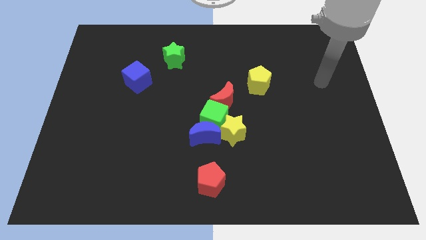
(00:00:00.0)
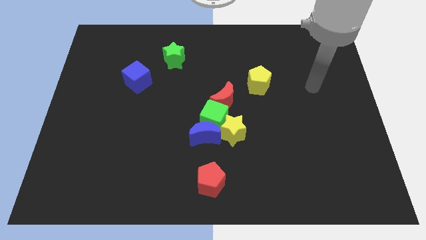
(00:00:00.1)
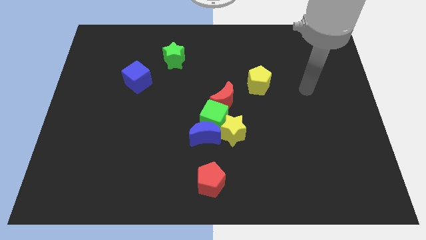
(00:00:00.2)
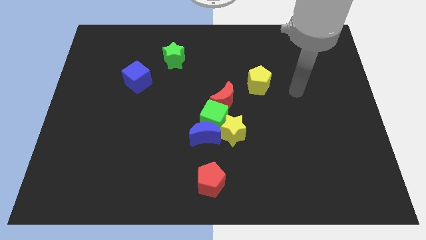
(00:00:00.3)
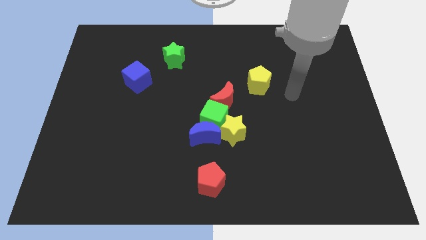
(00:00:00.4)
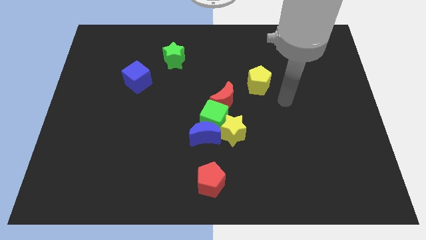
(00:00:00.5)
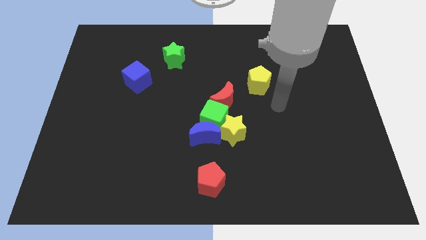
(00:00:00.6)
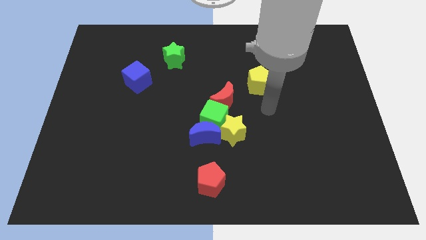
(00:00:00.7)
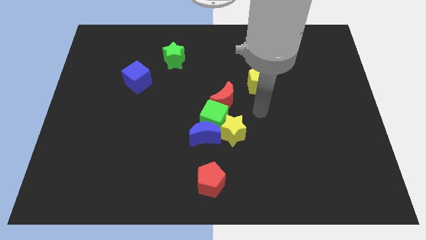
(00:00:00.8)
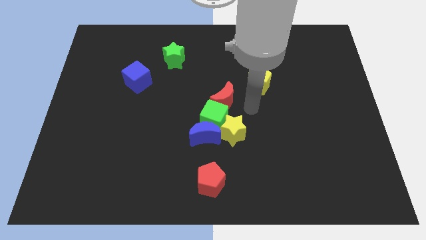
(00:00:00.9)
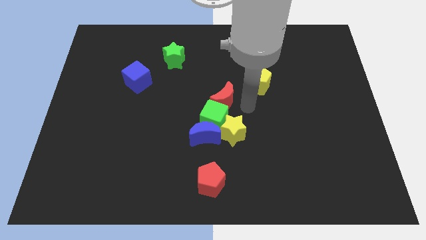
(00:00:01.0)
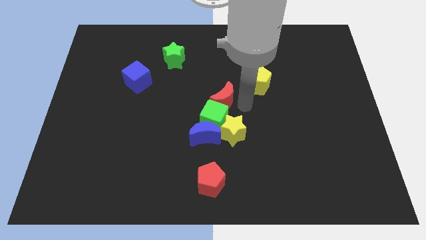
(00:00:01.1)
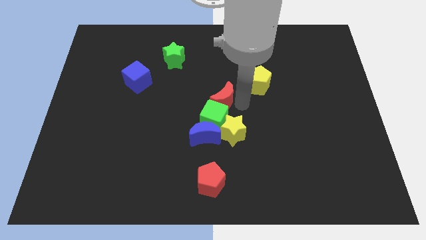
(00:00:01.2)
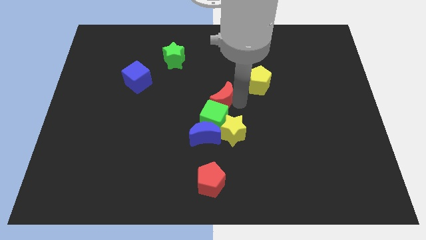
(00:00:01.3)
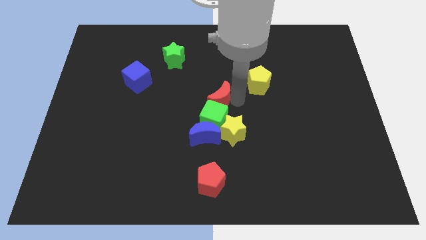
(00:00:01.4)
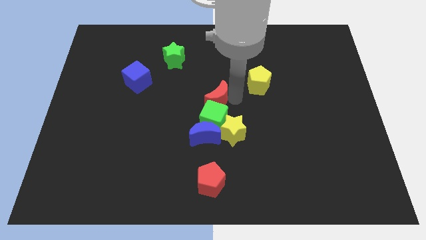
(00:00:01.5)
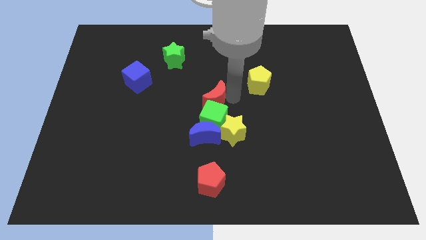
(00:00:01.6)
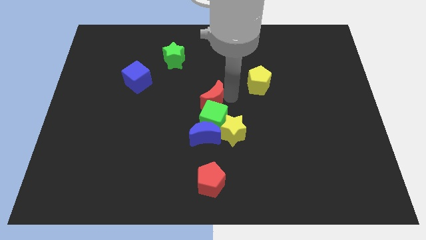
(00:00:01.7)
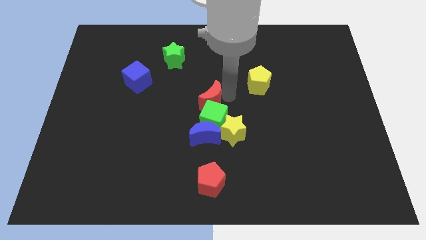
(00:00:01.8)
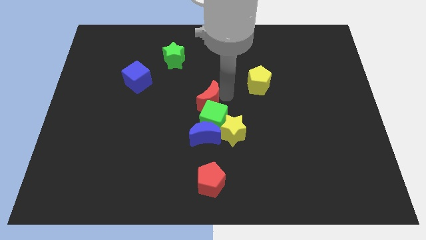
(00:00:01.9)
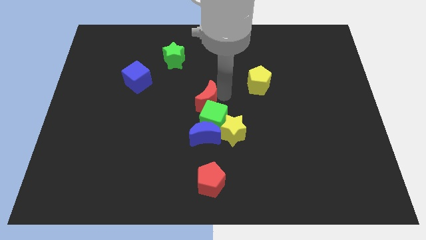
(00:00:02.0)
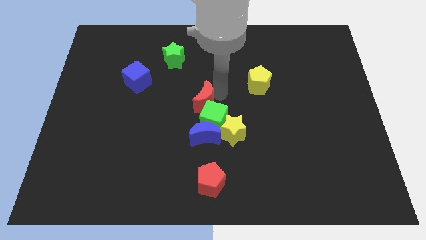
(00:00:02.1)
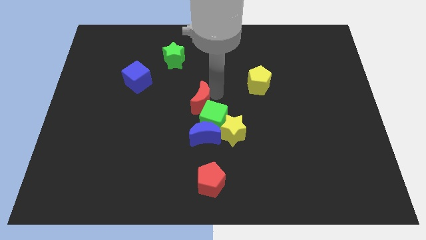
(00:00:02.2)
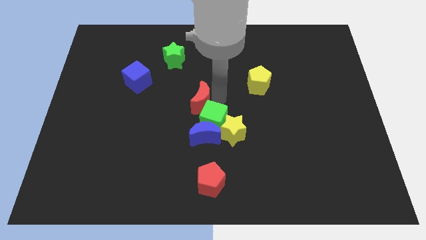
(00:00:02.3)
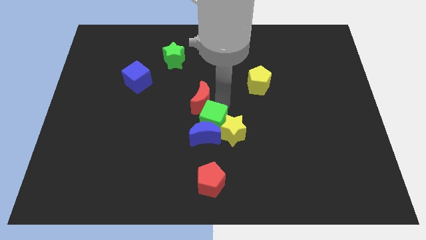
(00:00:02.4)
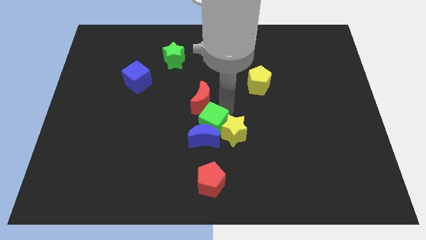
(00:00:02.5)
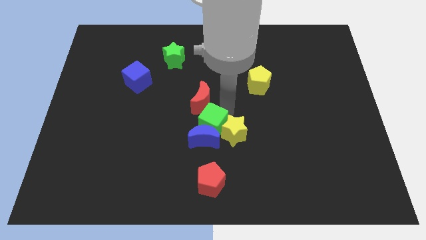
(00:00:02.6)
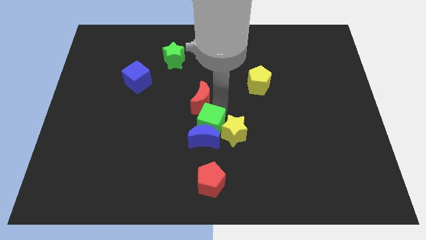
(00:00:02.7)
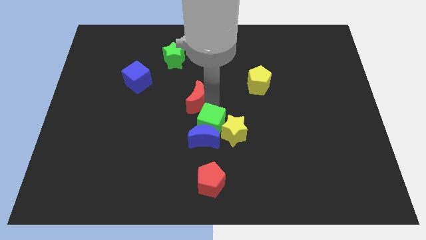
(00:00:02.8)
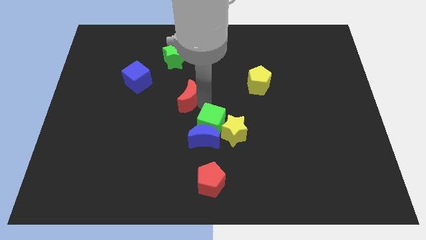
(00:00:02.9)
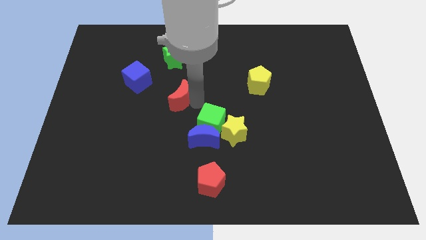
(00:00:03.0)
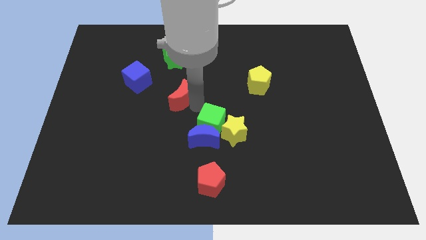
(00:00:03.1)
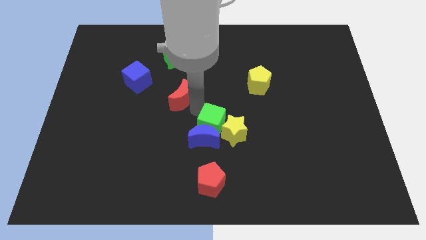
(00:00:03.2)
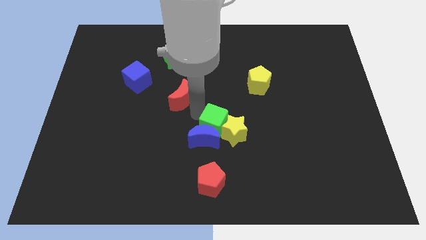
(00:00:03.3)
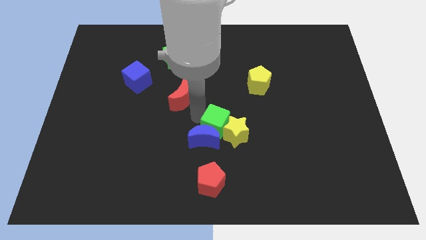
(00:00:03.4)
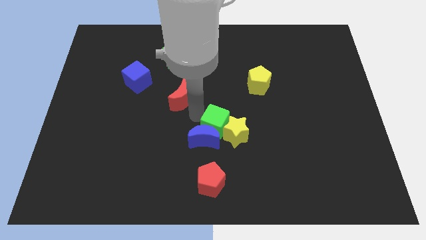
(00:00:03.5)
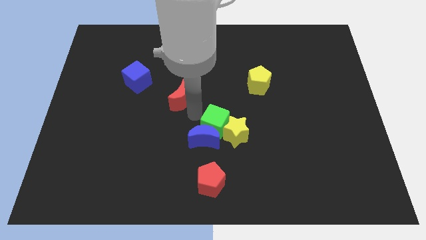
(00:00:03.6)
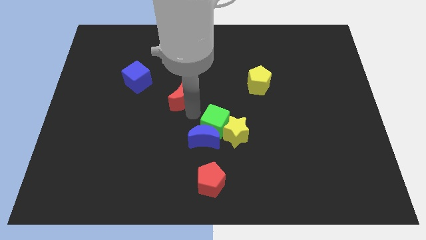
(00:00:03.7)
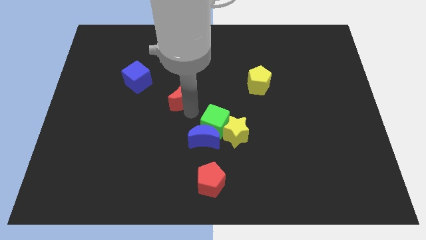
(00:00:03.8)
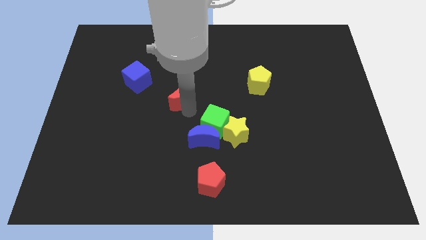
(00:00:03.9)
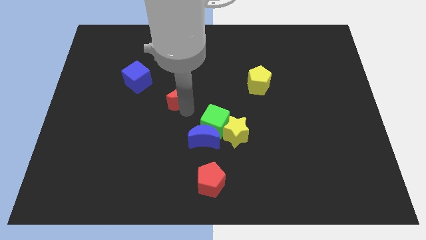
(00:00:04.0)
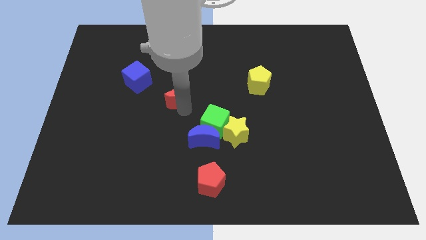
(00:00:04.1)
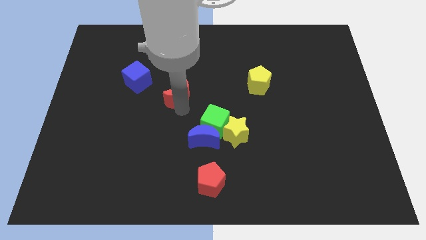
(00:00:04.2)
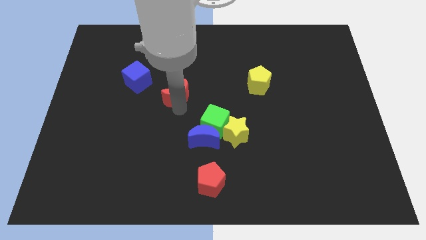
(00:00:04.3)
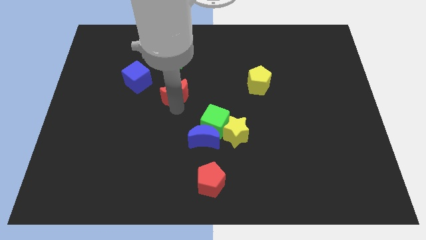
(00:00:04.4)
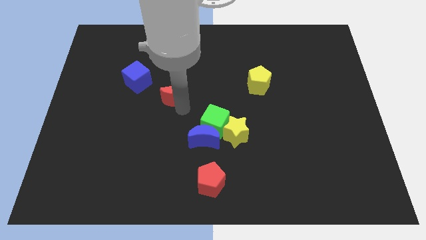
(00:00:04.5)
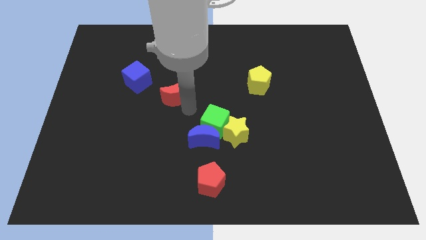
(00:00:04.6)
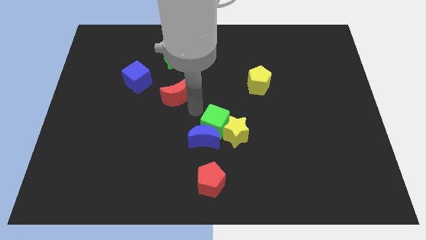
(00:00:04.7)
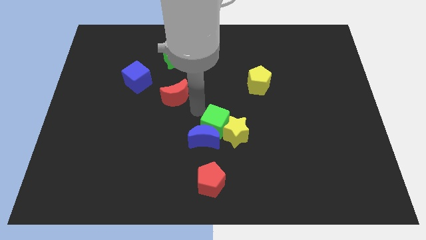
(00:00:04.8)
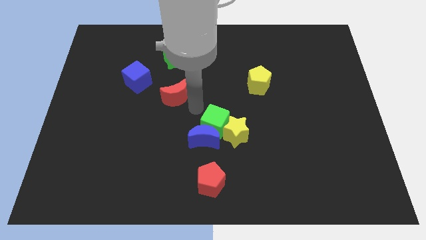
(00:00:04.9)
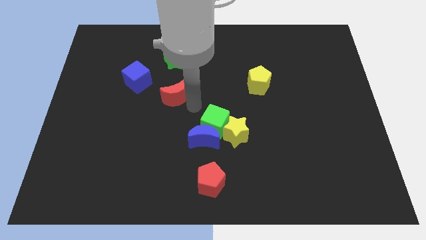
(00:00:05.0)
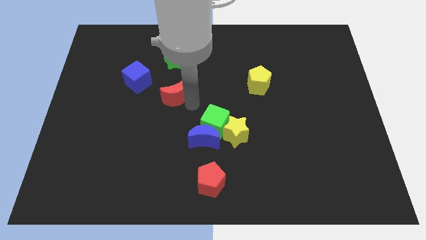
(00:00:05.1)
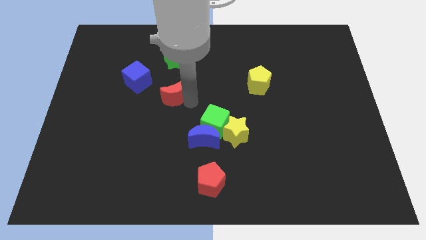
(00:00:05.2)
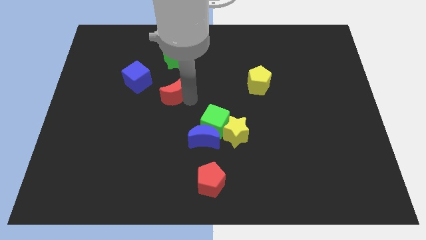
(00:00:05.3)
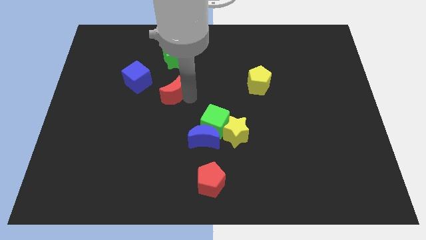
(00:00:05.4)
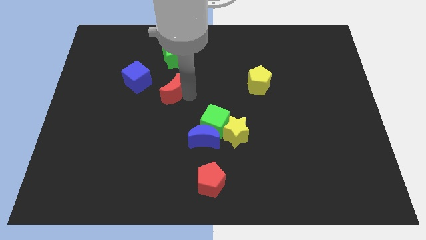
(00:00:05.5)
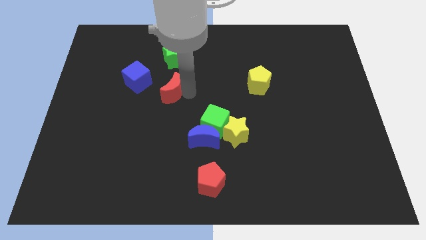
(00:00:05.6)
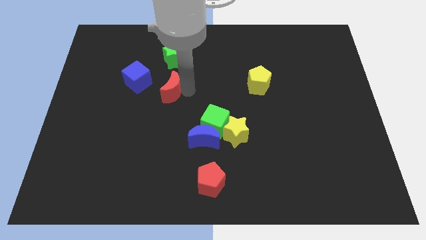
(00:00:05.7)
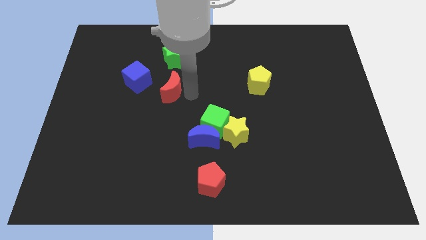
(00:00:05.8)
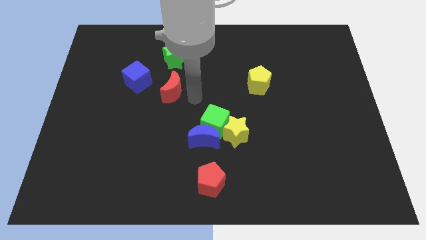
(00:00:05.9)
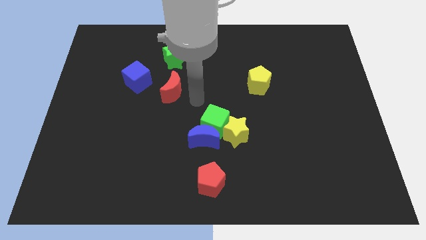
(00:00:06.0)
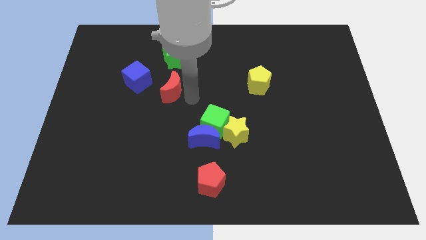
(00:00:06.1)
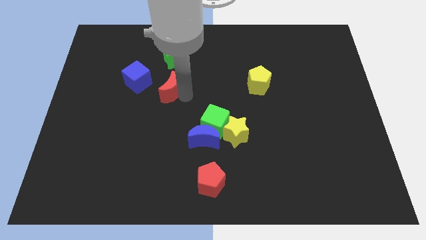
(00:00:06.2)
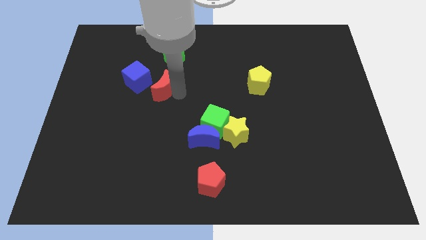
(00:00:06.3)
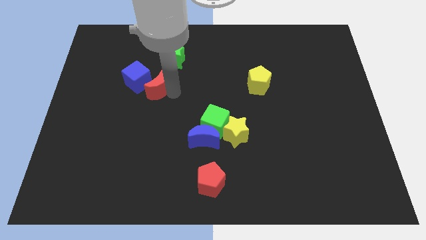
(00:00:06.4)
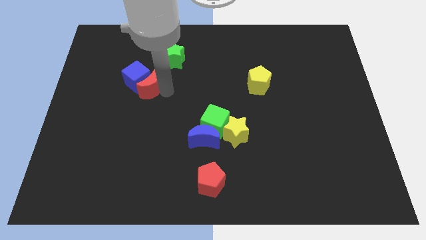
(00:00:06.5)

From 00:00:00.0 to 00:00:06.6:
put the red moon to the blue cube

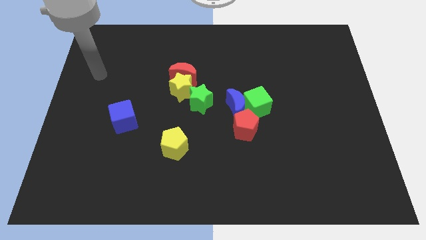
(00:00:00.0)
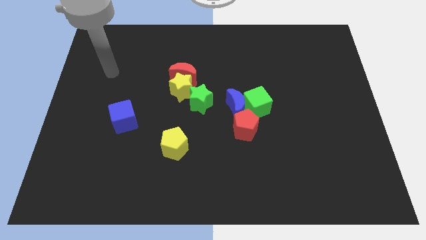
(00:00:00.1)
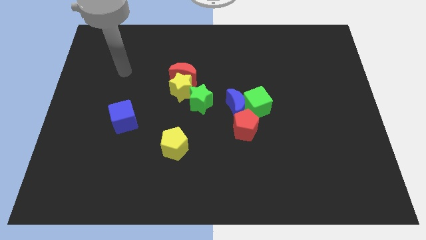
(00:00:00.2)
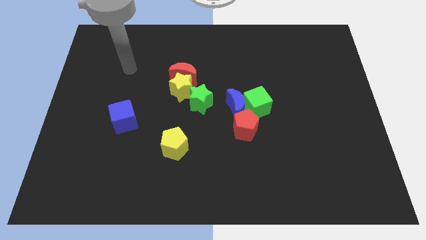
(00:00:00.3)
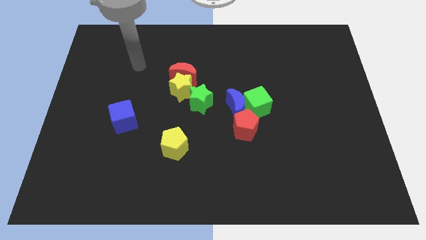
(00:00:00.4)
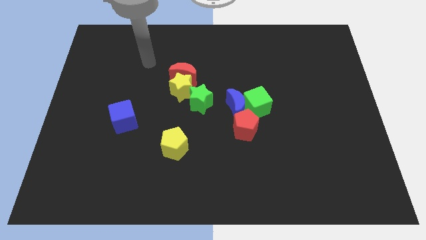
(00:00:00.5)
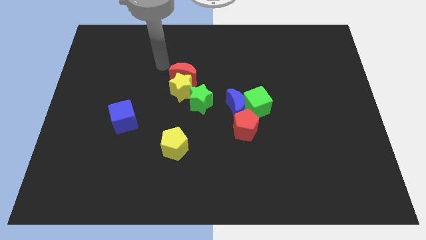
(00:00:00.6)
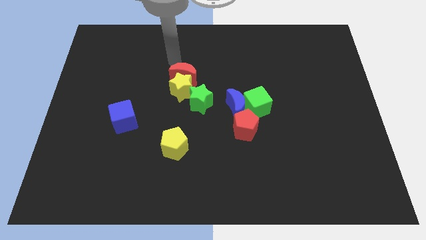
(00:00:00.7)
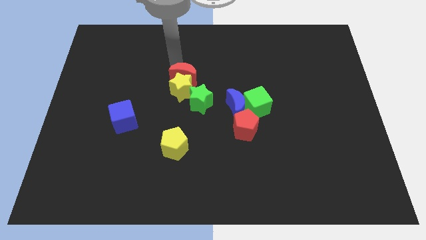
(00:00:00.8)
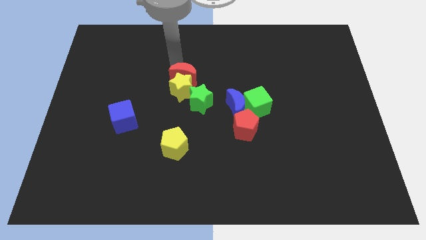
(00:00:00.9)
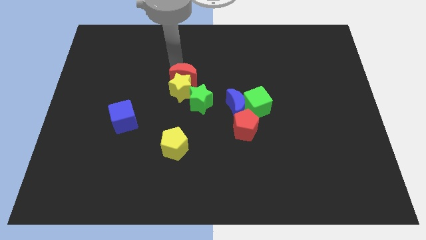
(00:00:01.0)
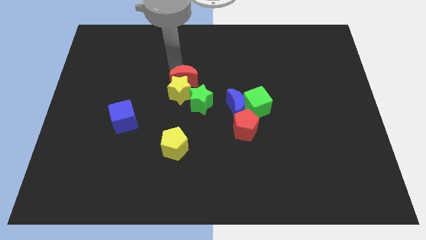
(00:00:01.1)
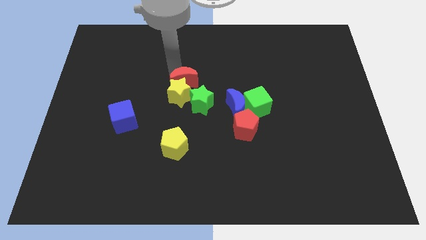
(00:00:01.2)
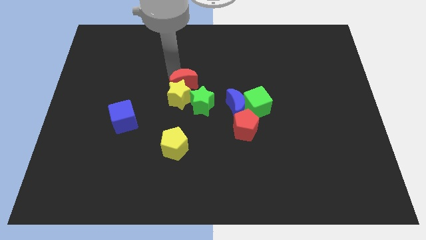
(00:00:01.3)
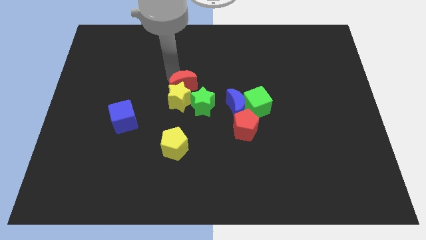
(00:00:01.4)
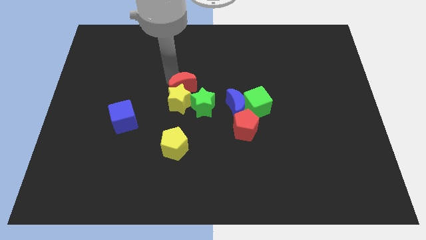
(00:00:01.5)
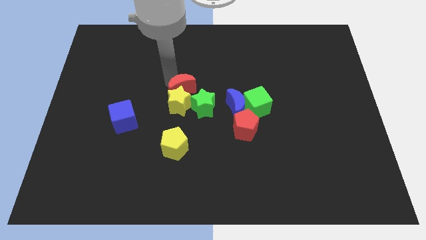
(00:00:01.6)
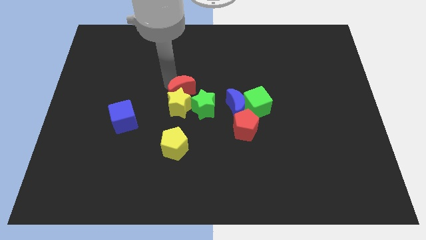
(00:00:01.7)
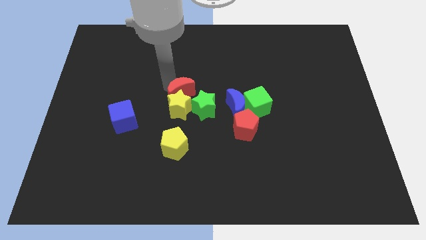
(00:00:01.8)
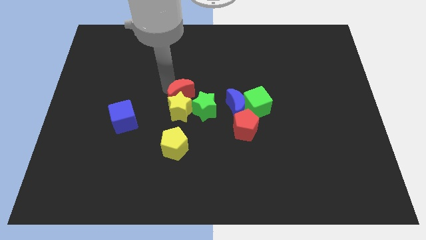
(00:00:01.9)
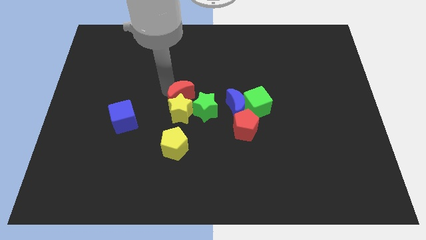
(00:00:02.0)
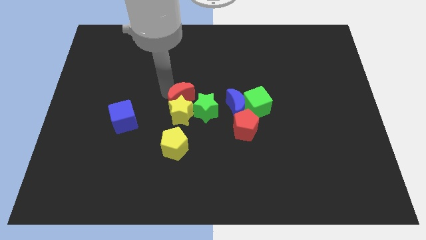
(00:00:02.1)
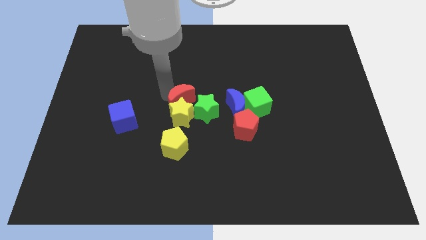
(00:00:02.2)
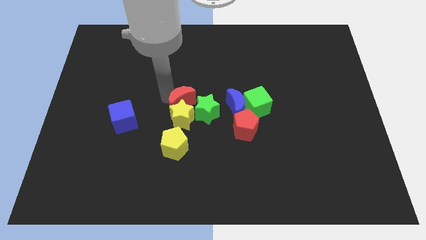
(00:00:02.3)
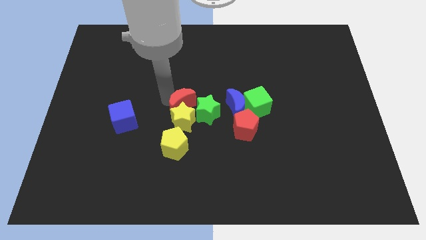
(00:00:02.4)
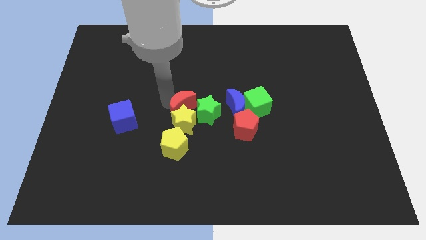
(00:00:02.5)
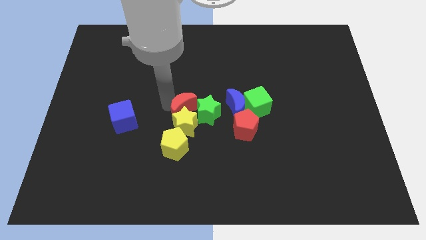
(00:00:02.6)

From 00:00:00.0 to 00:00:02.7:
slide the red moon to the green star
